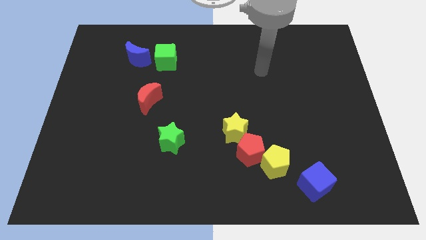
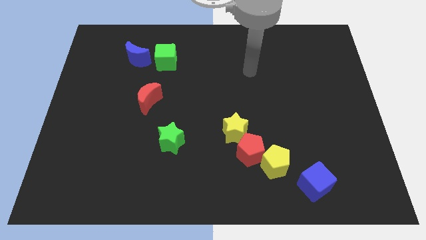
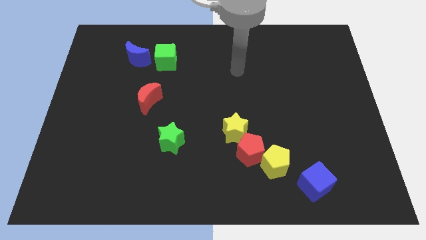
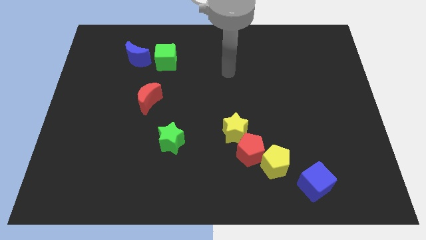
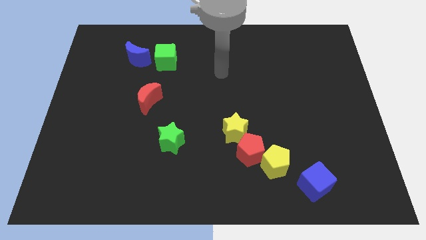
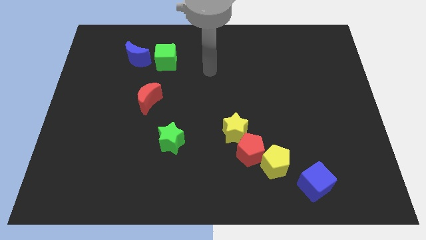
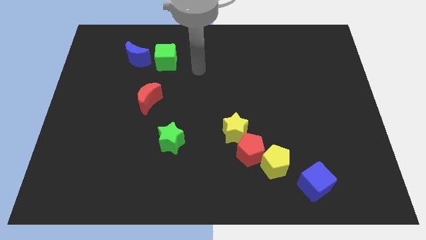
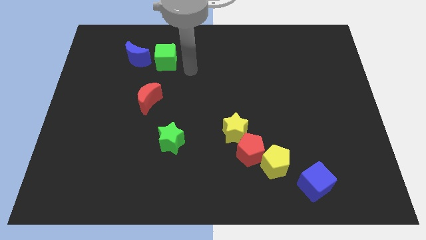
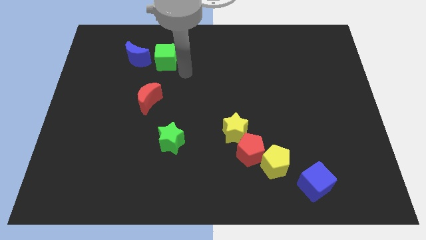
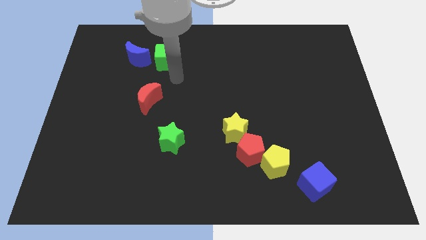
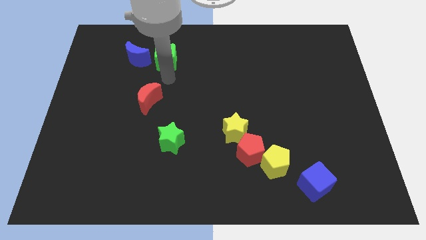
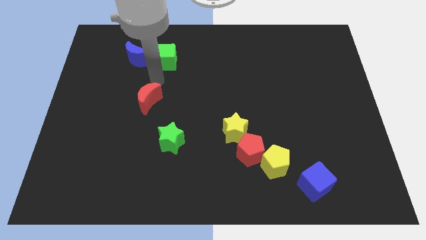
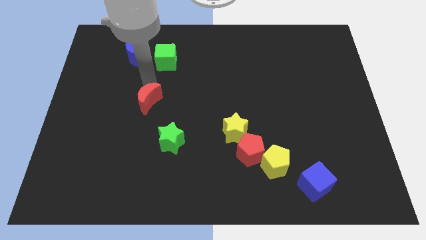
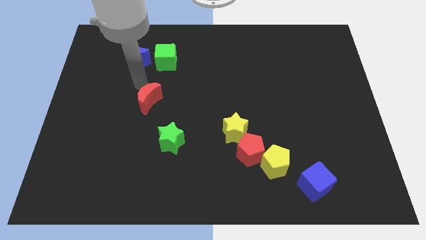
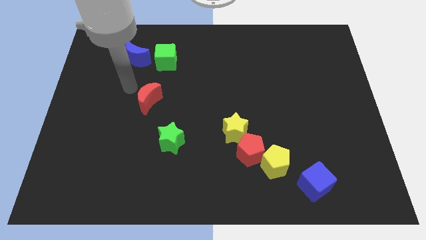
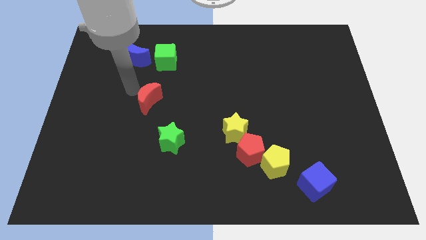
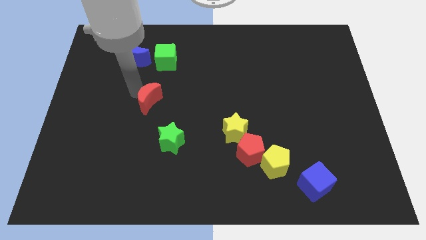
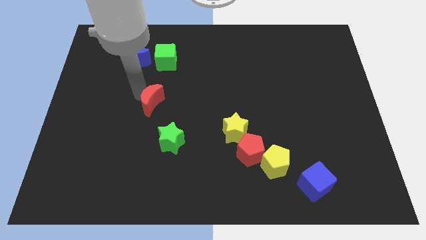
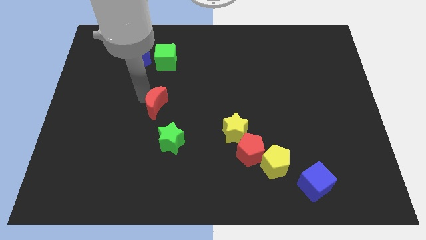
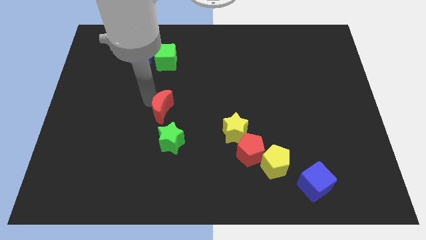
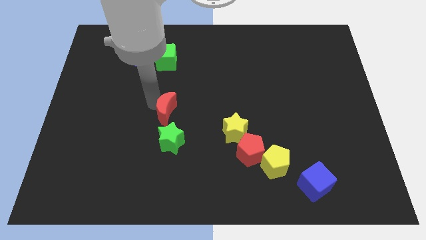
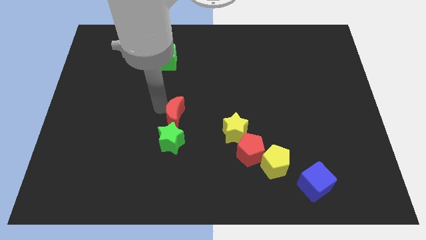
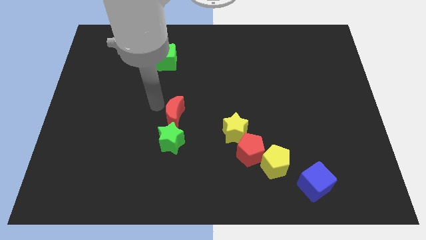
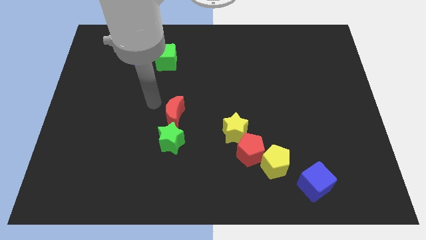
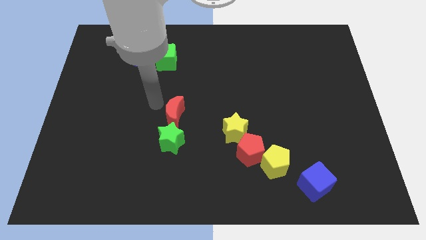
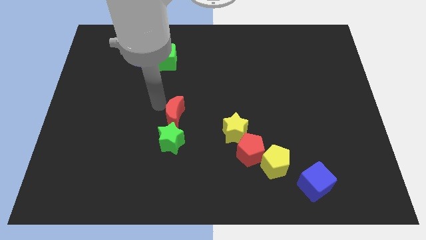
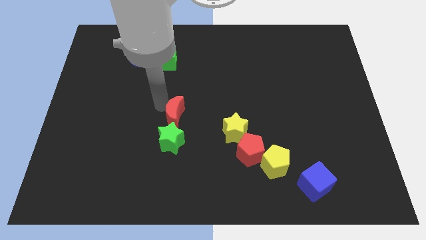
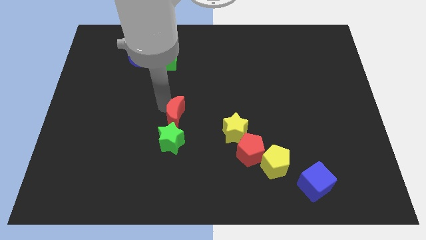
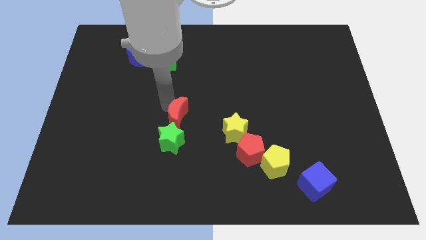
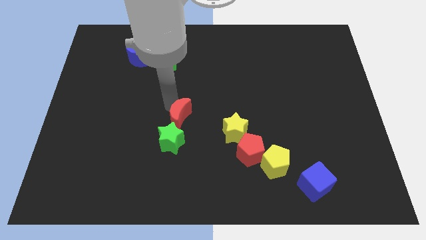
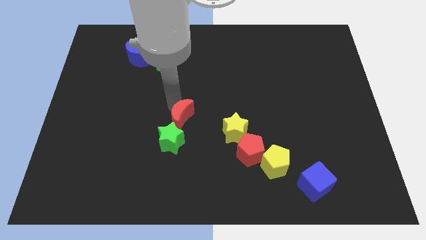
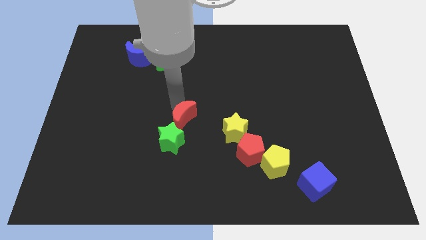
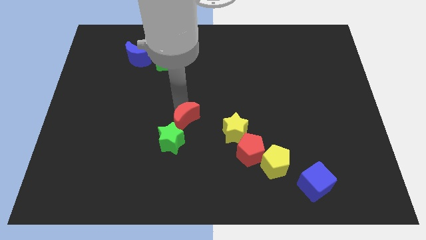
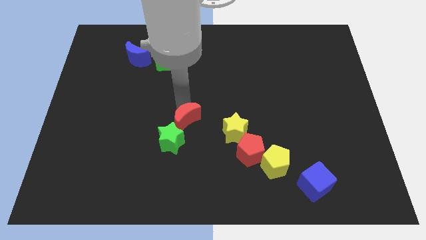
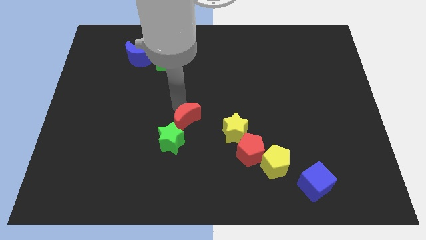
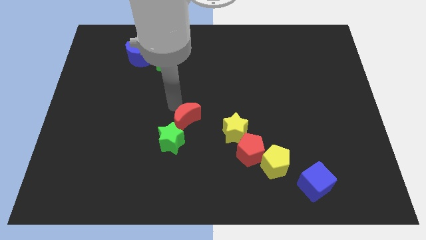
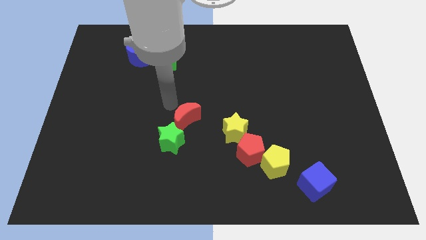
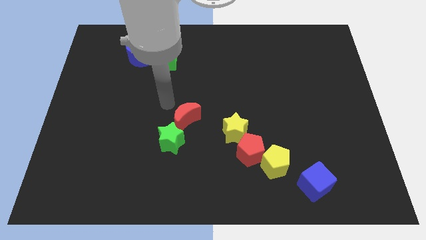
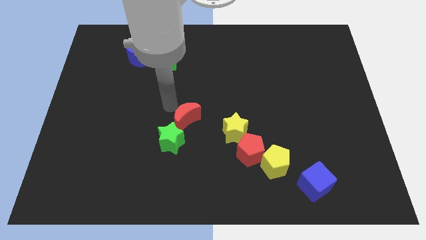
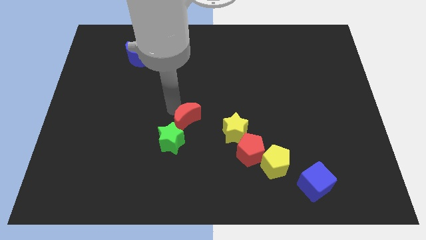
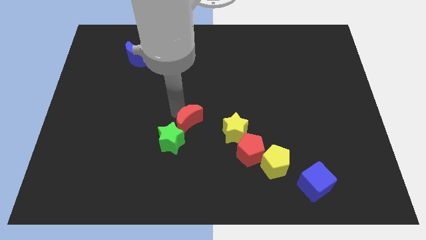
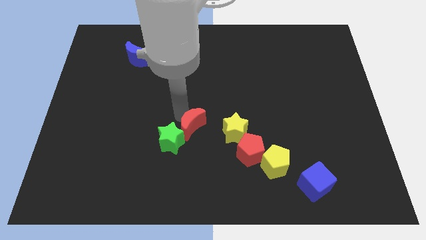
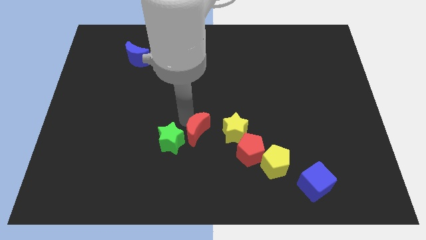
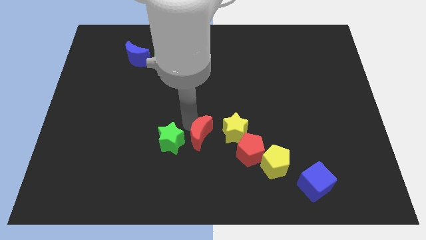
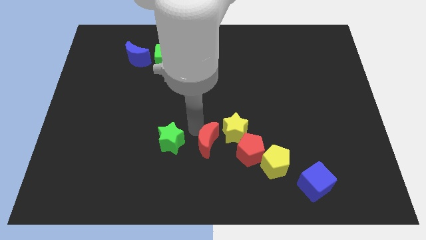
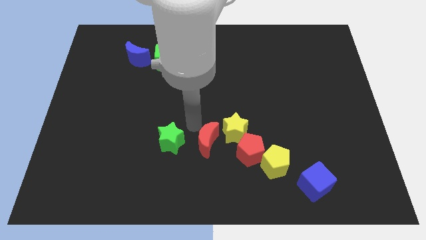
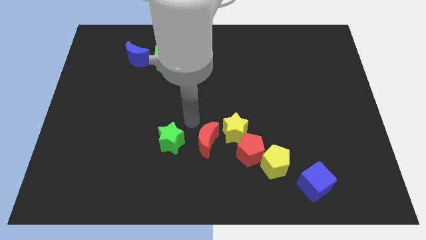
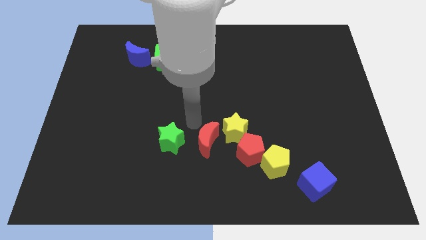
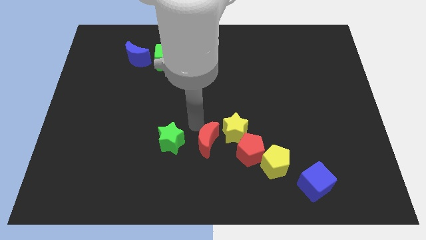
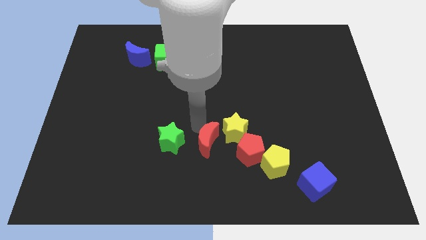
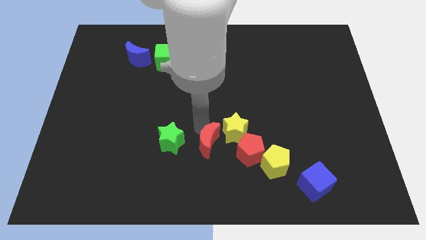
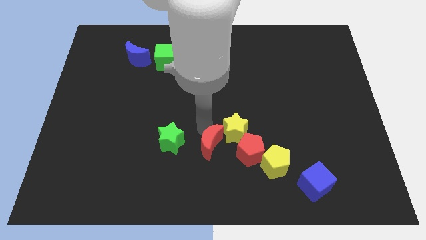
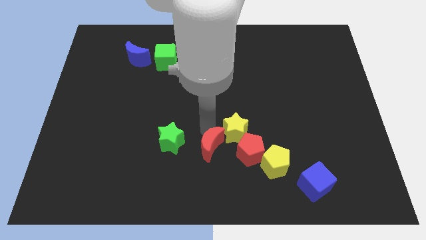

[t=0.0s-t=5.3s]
slide the red moon just left of the yellow pentagon

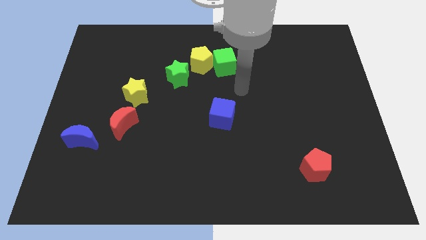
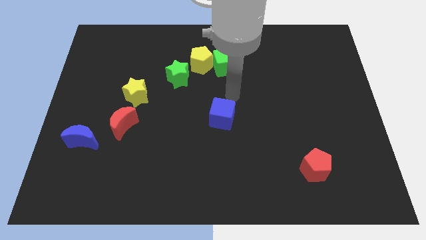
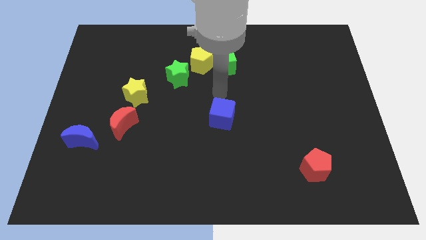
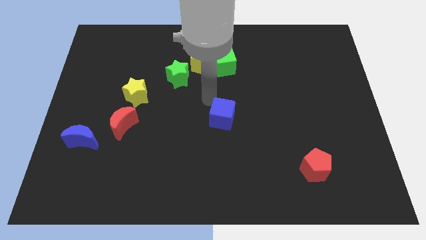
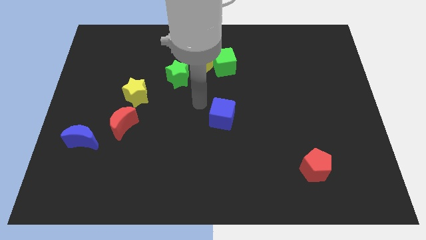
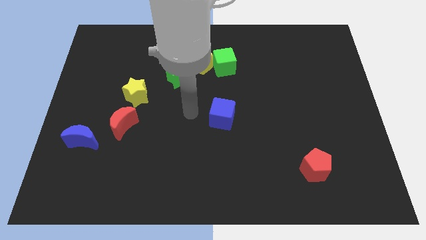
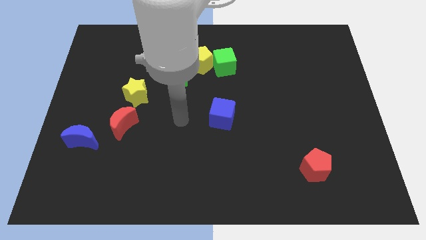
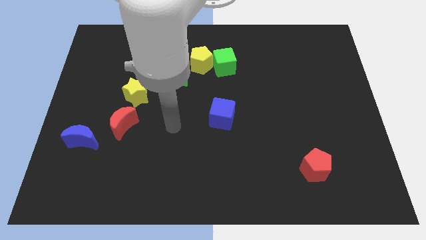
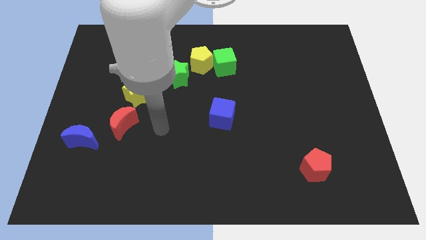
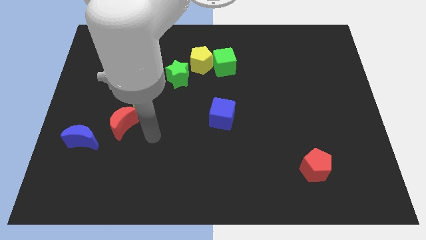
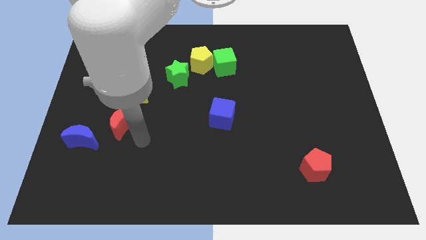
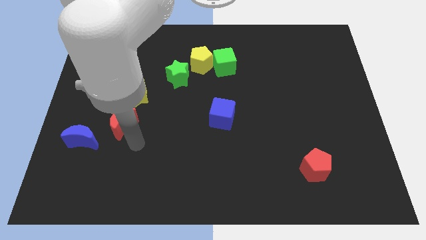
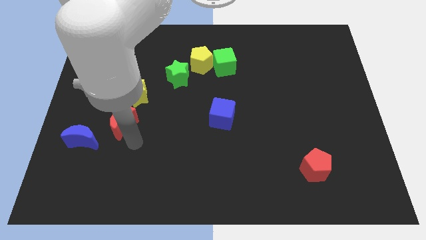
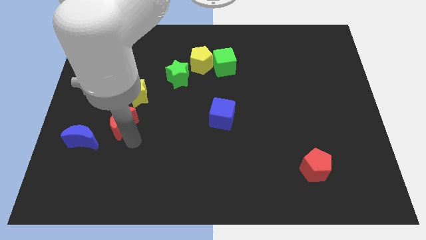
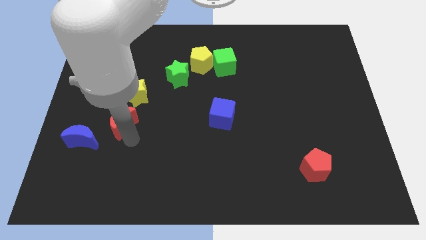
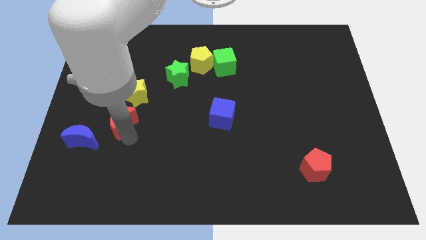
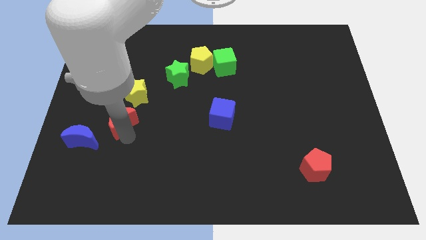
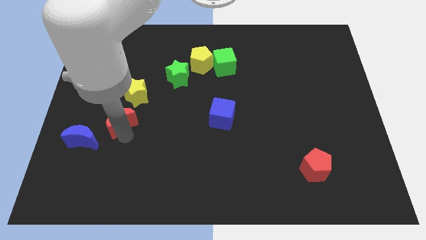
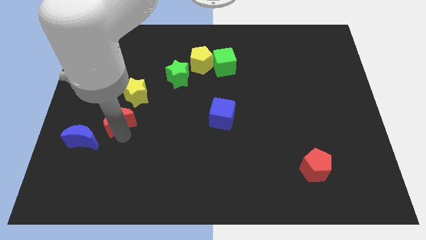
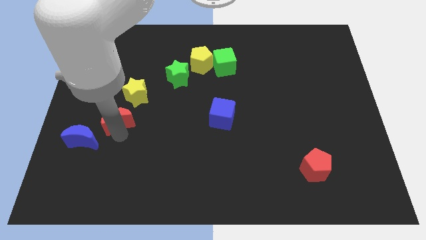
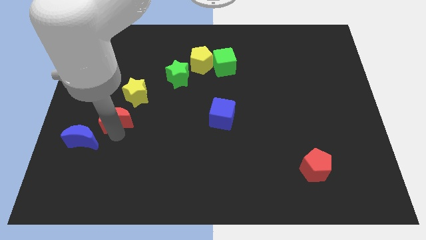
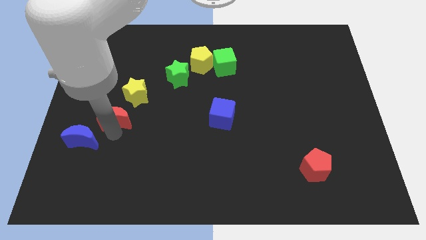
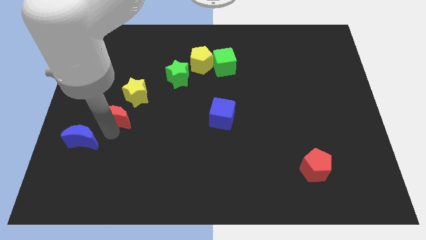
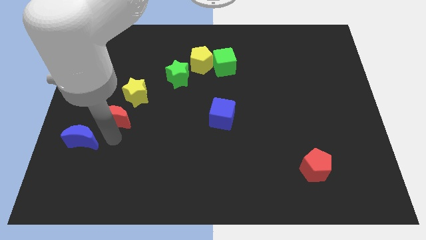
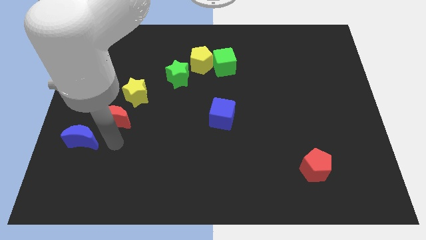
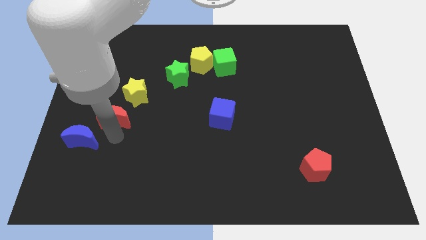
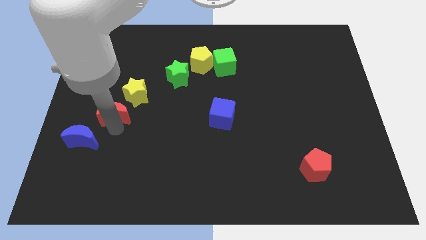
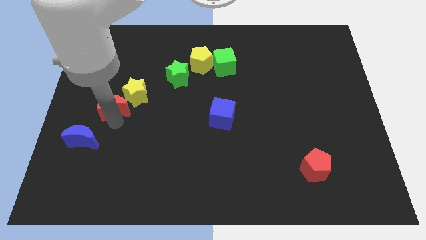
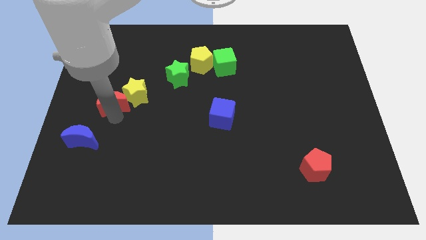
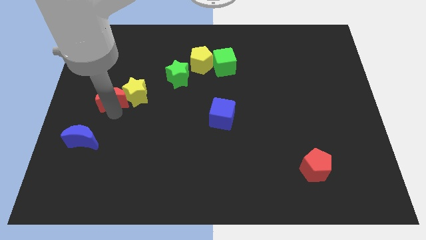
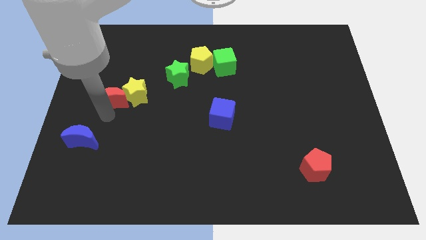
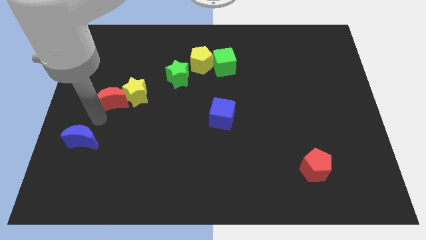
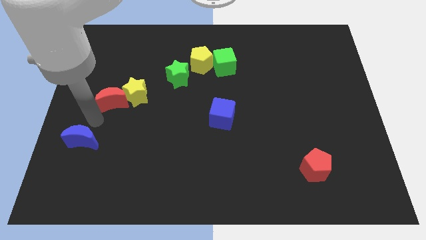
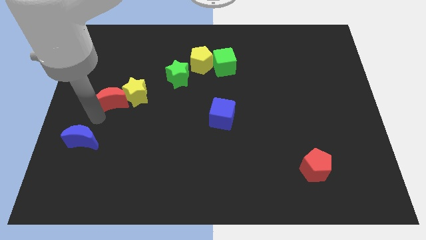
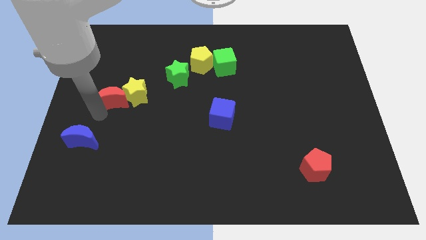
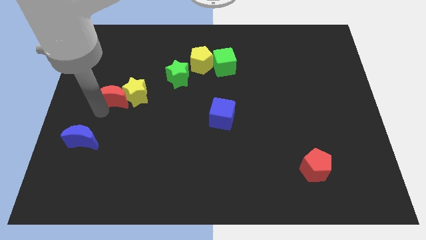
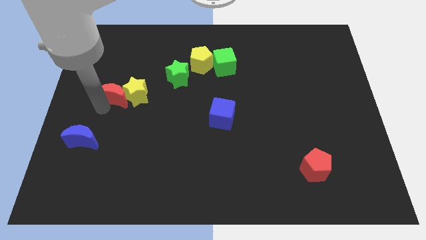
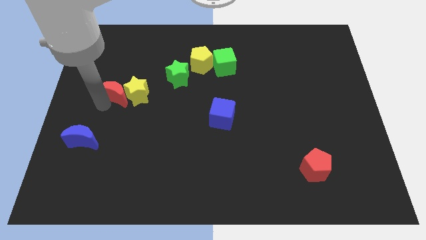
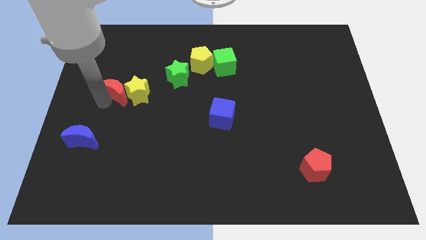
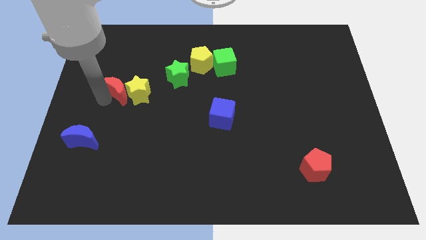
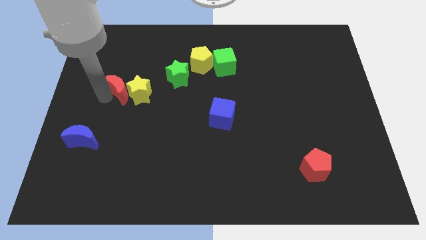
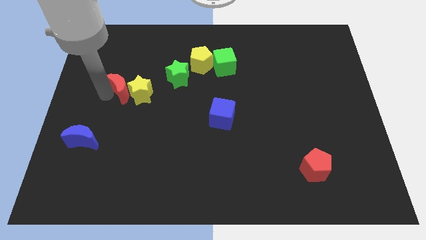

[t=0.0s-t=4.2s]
slide the red moon to the left of the green star
